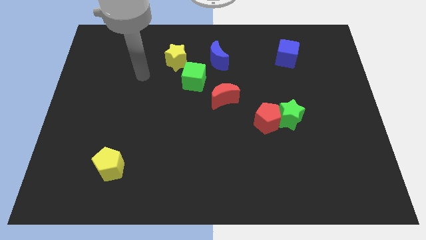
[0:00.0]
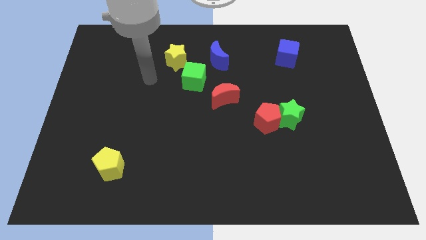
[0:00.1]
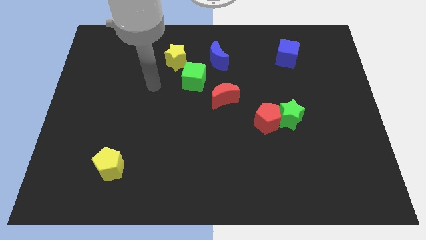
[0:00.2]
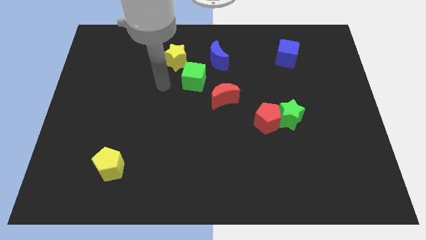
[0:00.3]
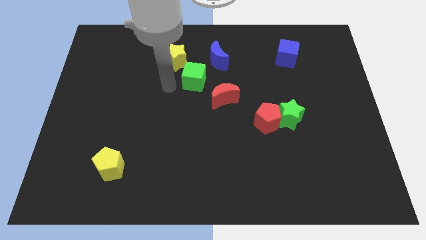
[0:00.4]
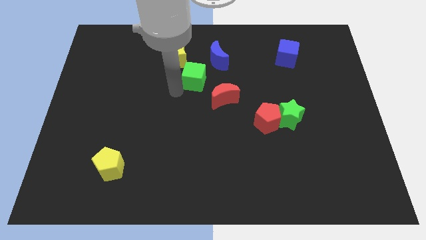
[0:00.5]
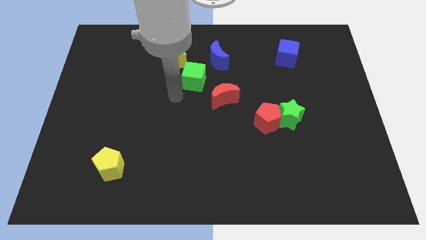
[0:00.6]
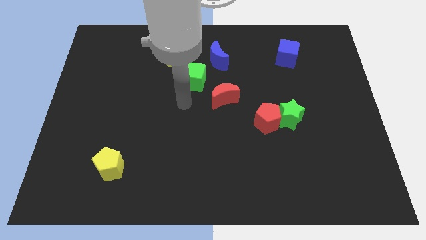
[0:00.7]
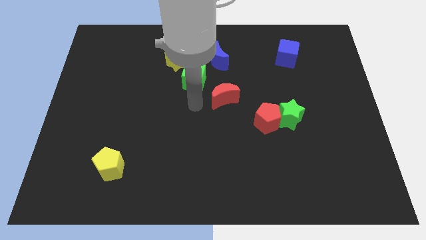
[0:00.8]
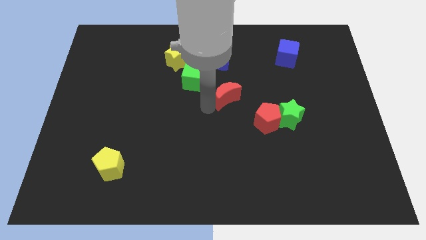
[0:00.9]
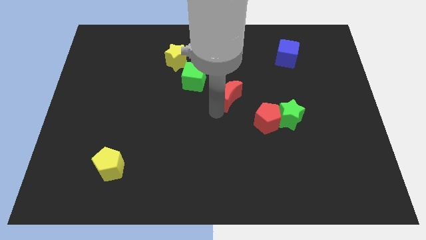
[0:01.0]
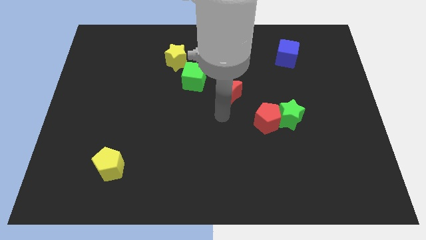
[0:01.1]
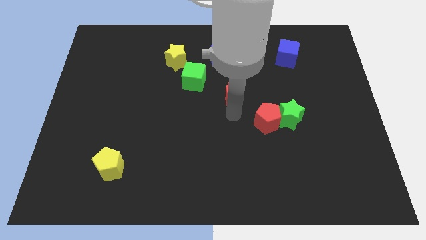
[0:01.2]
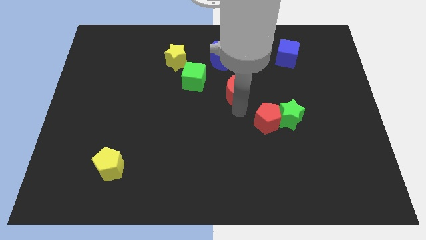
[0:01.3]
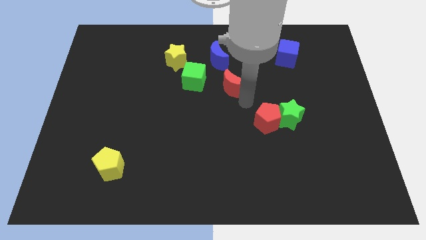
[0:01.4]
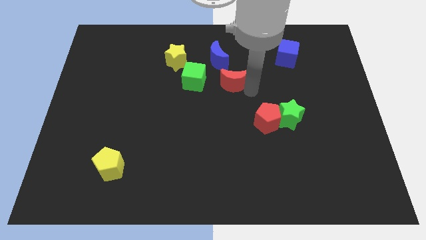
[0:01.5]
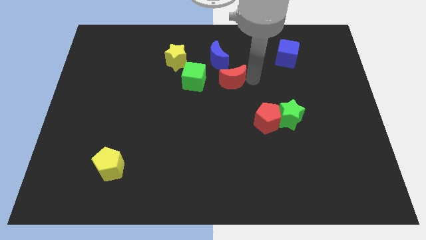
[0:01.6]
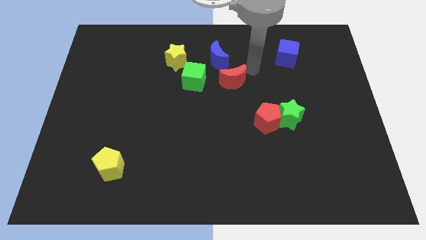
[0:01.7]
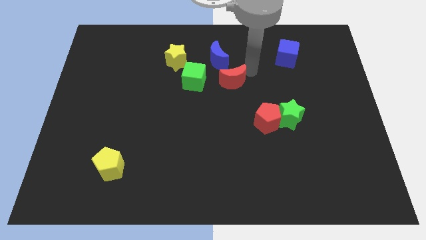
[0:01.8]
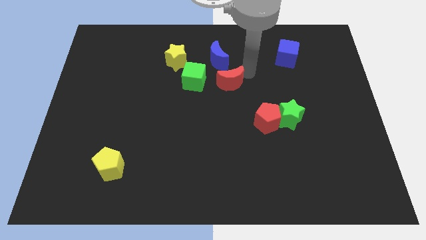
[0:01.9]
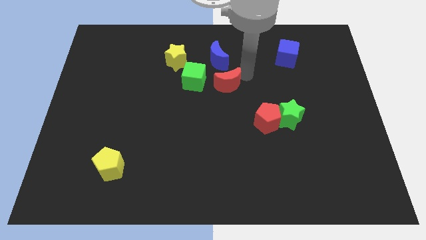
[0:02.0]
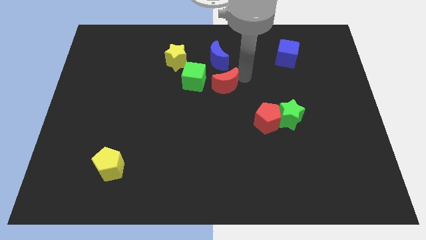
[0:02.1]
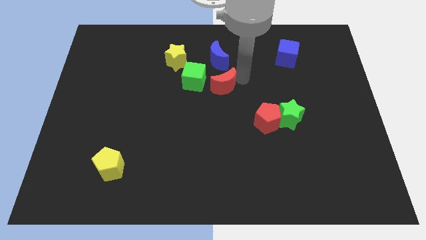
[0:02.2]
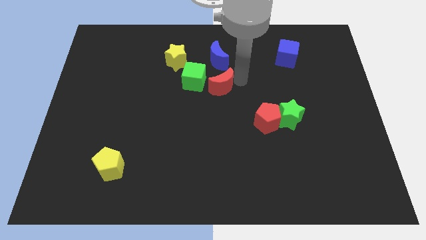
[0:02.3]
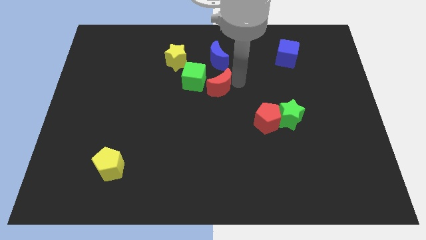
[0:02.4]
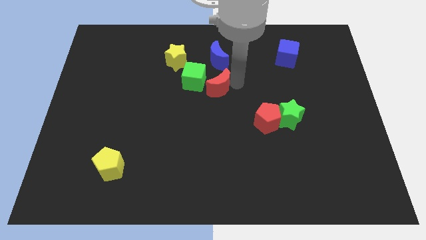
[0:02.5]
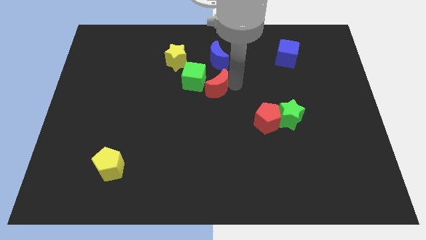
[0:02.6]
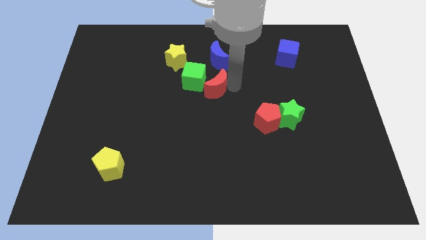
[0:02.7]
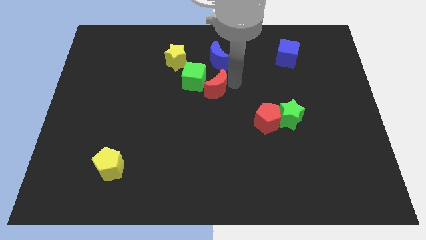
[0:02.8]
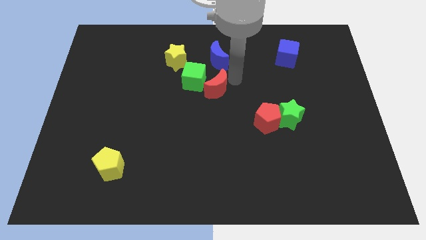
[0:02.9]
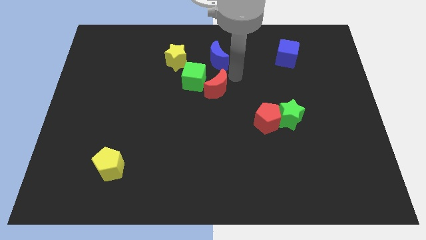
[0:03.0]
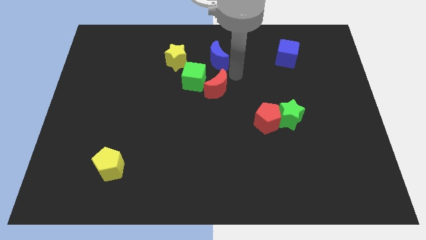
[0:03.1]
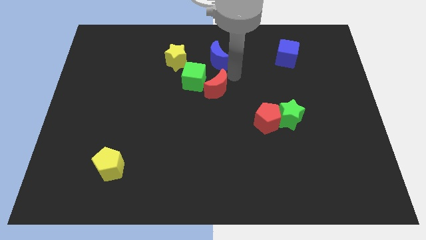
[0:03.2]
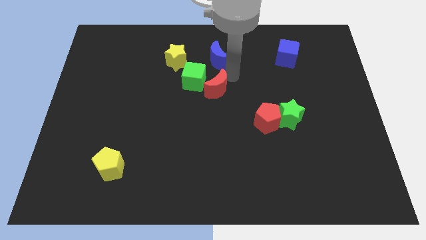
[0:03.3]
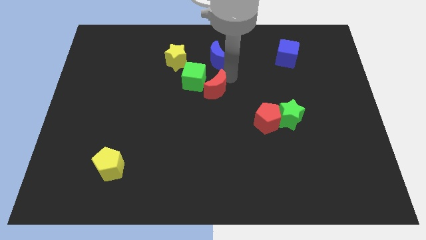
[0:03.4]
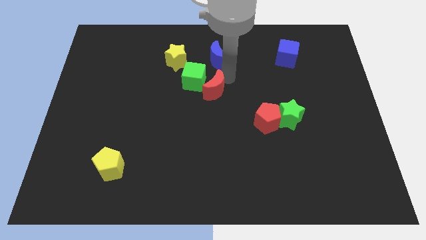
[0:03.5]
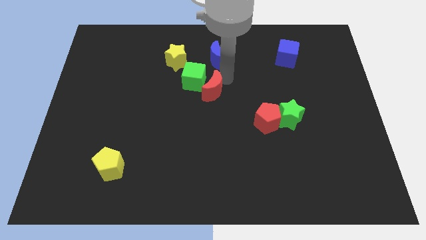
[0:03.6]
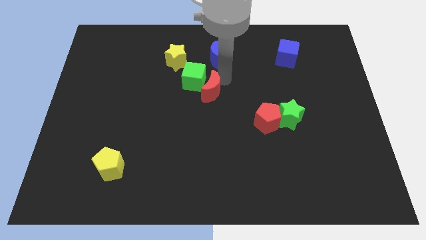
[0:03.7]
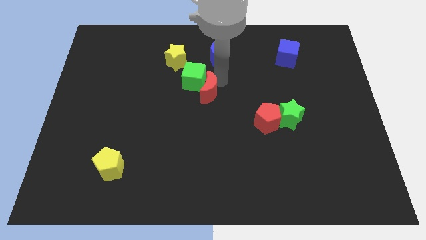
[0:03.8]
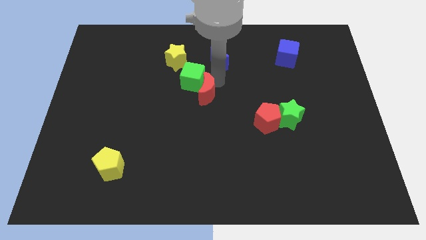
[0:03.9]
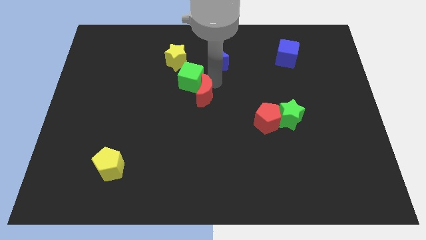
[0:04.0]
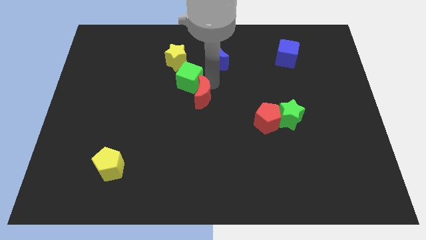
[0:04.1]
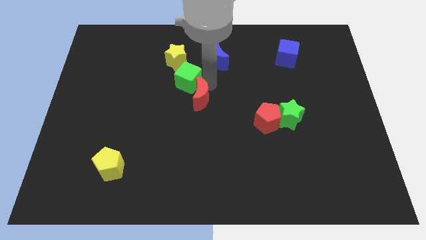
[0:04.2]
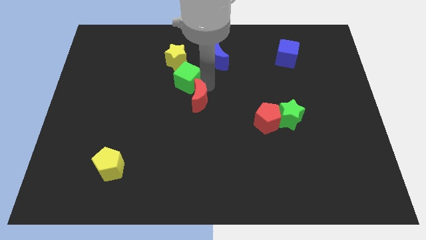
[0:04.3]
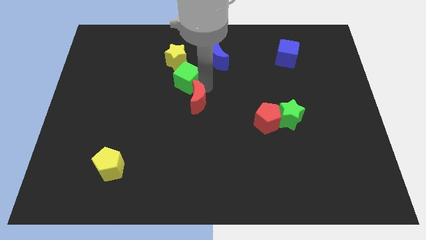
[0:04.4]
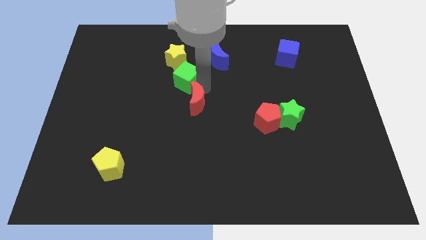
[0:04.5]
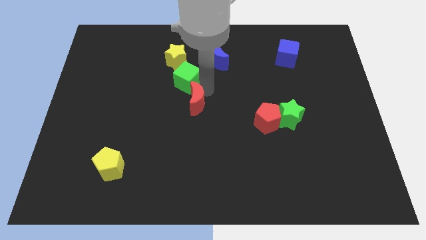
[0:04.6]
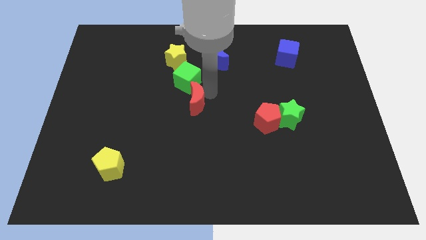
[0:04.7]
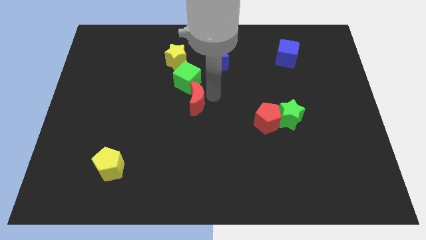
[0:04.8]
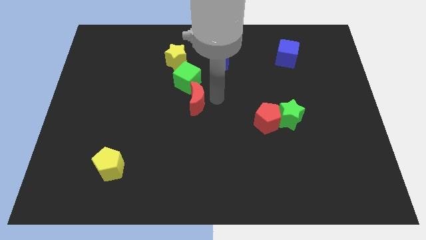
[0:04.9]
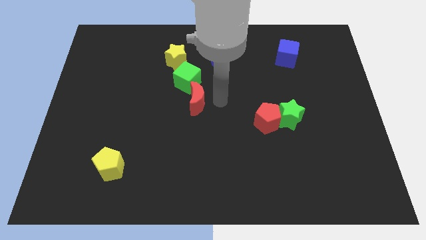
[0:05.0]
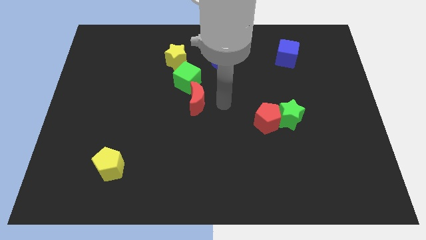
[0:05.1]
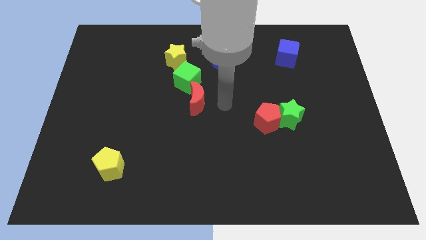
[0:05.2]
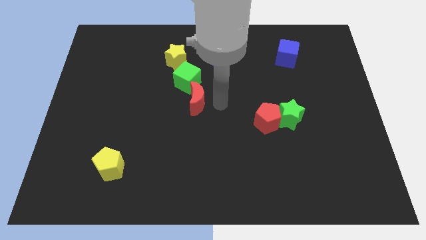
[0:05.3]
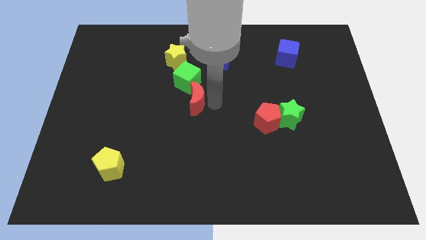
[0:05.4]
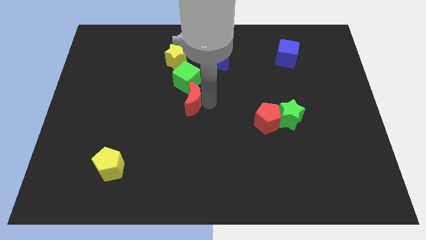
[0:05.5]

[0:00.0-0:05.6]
move the red moon left somewhat

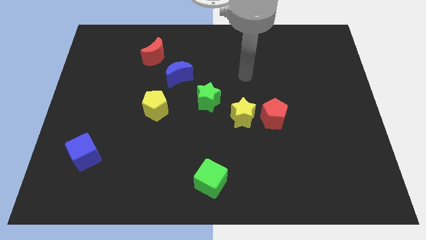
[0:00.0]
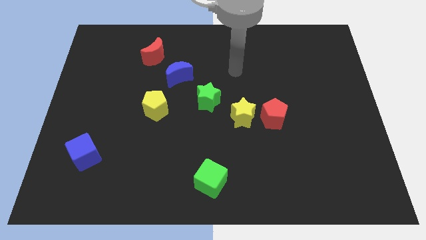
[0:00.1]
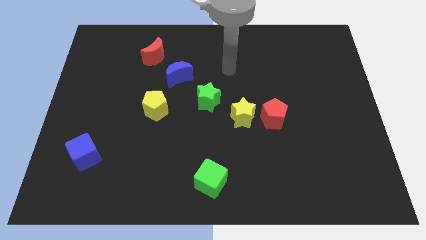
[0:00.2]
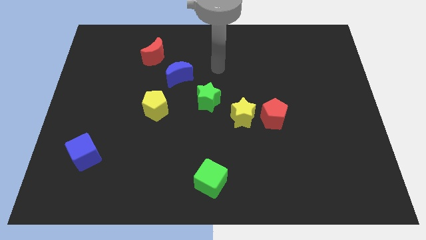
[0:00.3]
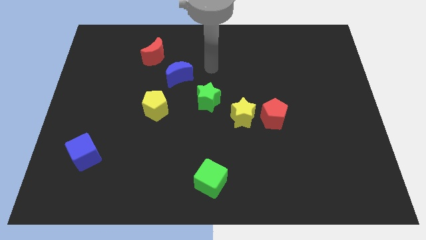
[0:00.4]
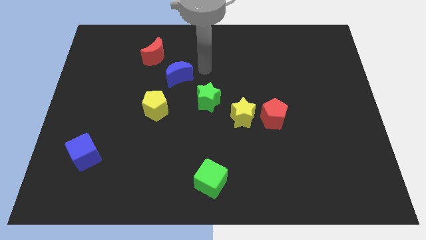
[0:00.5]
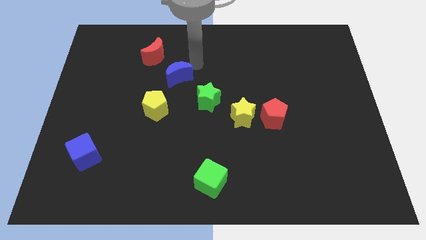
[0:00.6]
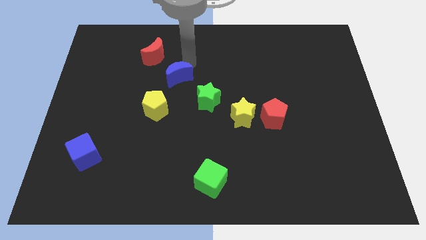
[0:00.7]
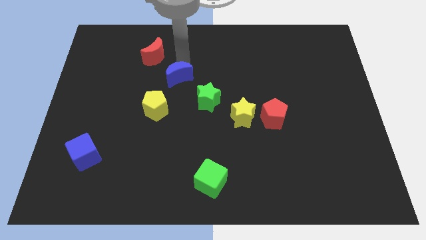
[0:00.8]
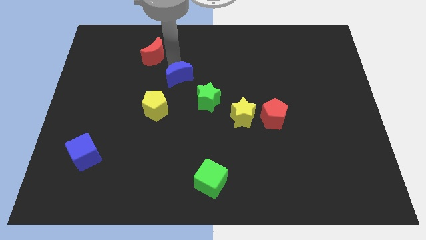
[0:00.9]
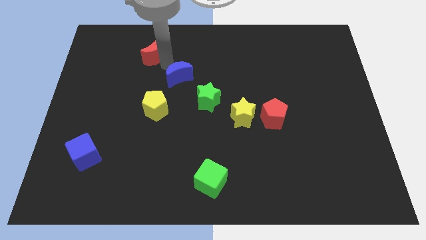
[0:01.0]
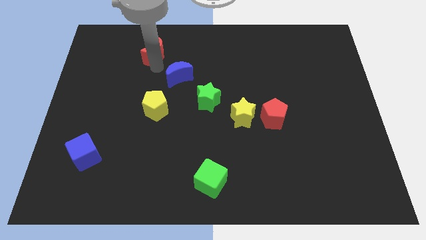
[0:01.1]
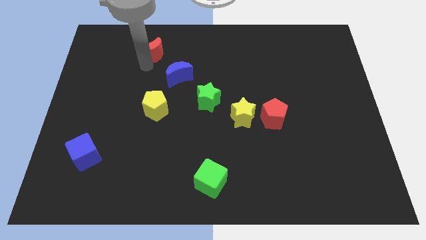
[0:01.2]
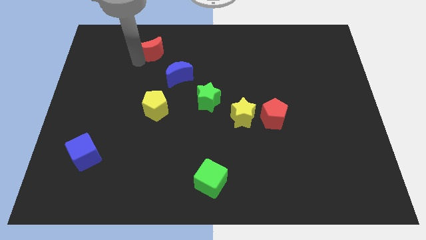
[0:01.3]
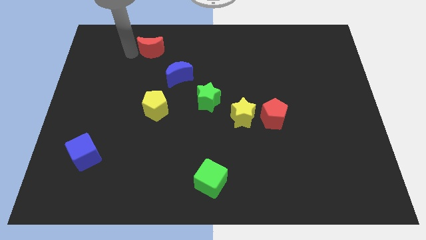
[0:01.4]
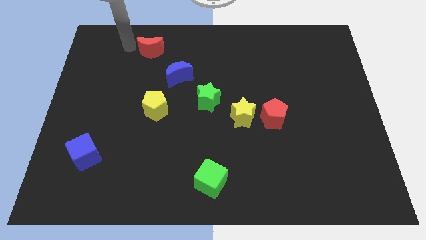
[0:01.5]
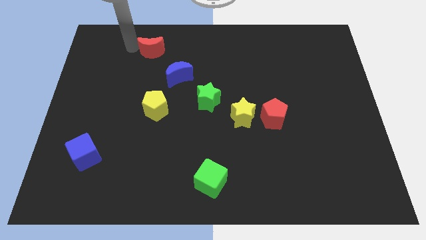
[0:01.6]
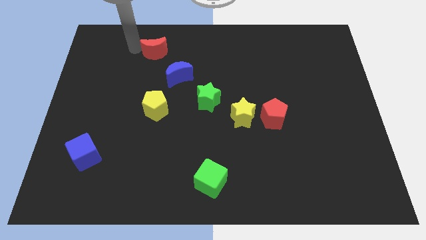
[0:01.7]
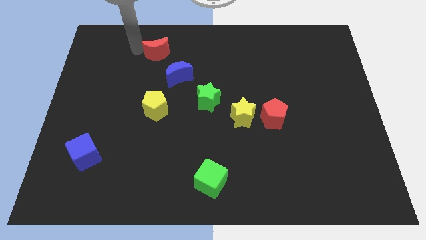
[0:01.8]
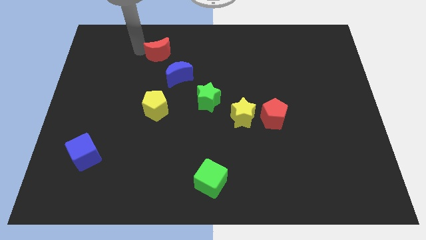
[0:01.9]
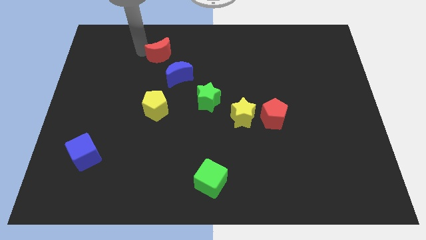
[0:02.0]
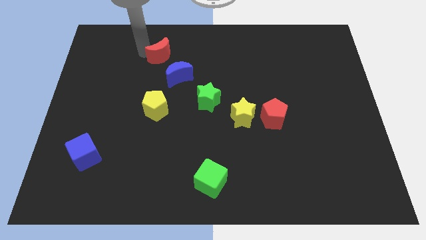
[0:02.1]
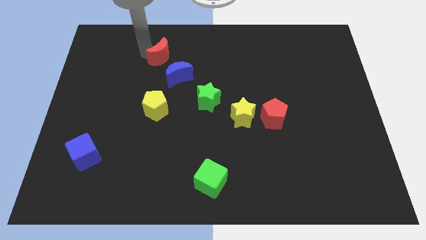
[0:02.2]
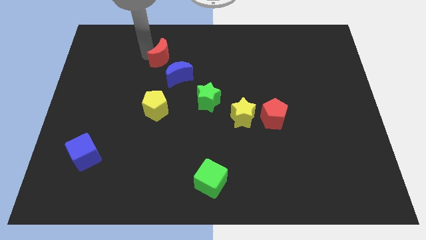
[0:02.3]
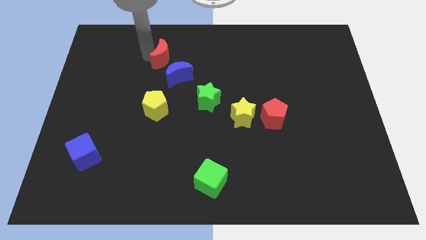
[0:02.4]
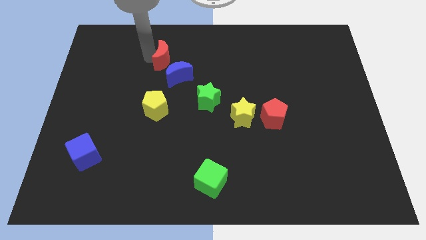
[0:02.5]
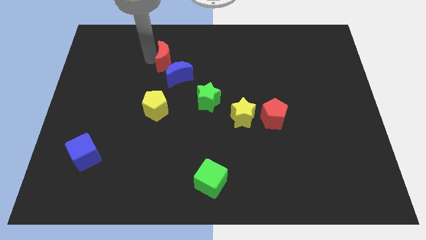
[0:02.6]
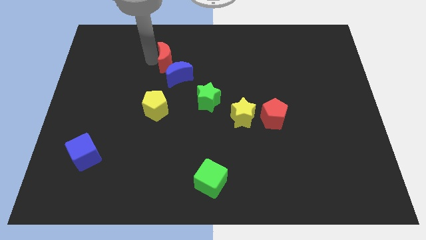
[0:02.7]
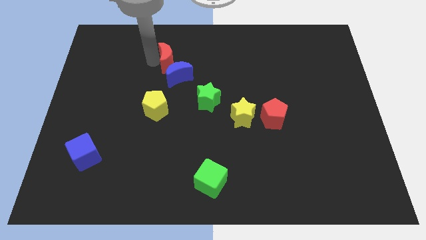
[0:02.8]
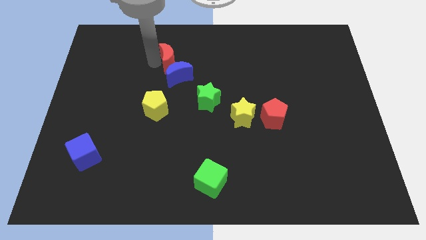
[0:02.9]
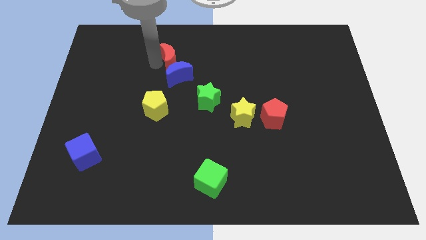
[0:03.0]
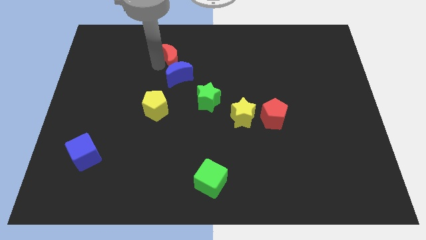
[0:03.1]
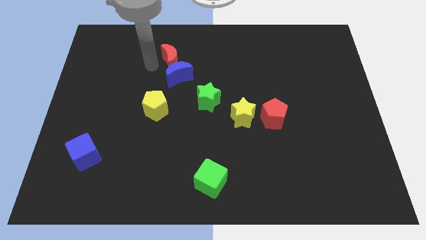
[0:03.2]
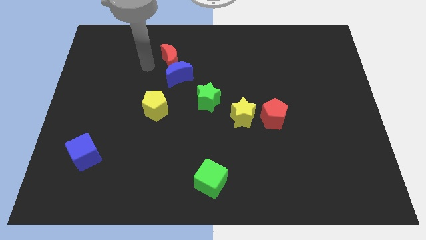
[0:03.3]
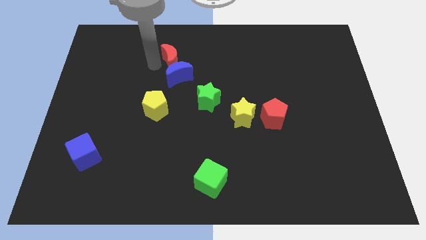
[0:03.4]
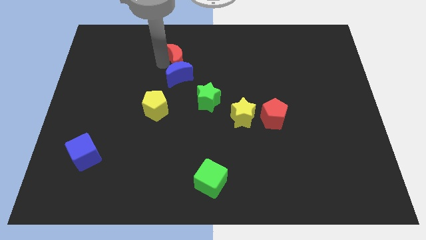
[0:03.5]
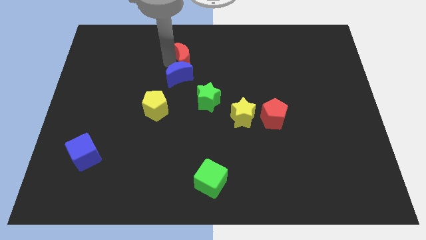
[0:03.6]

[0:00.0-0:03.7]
slightly move the red moon to the right
